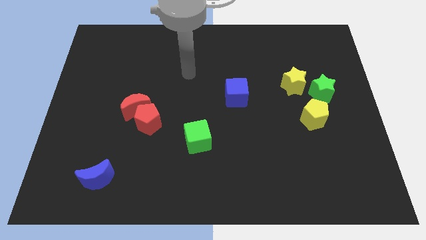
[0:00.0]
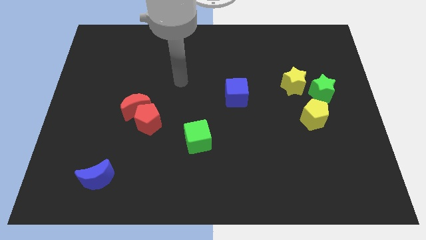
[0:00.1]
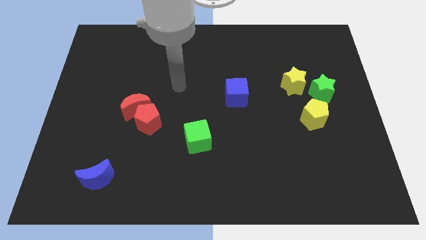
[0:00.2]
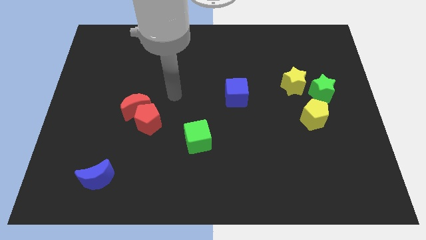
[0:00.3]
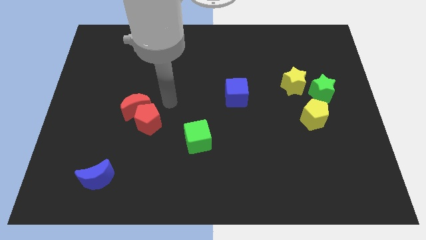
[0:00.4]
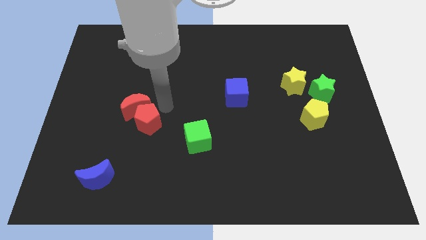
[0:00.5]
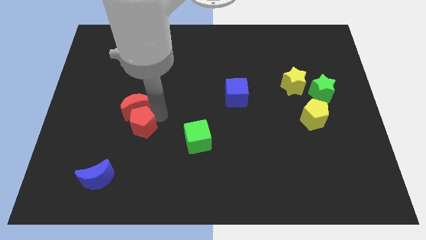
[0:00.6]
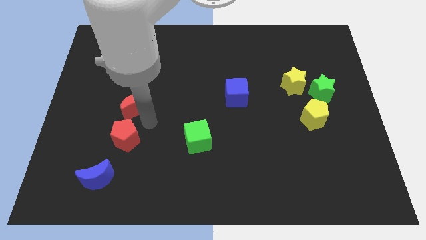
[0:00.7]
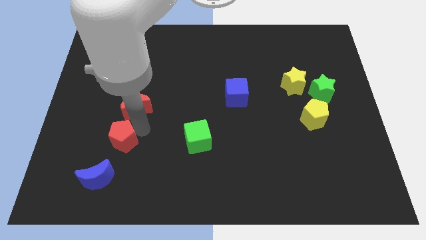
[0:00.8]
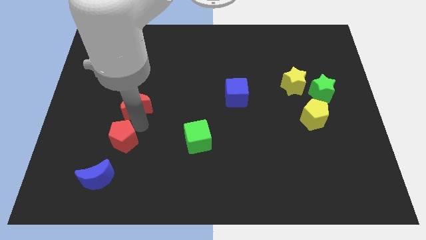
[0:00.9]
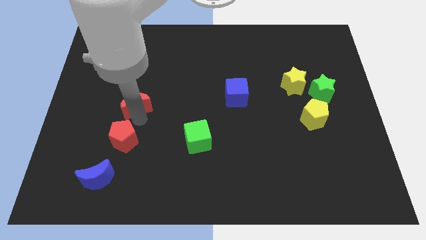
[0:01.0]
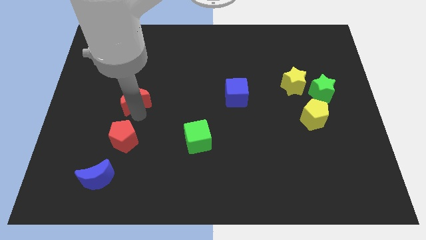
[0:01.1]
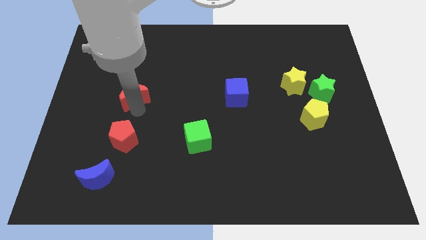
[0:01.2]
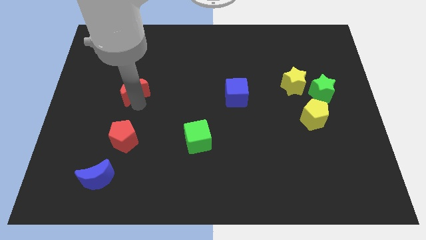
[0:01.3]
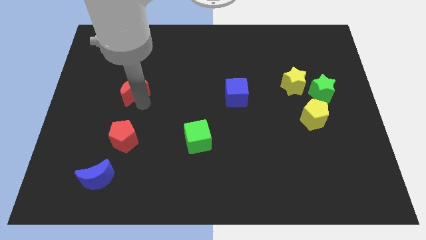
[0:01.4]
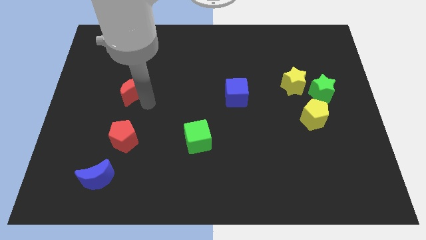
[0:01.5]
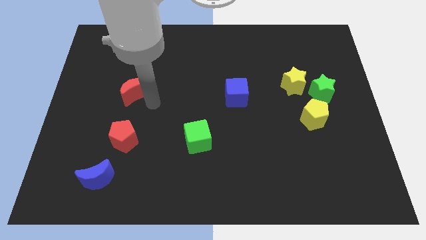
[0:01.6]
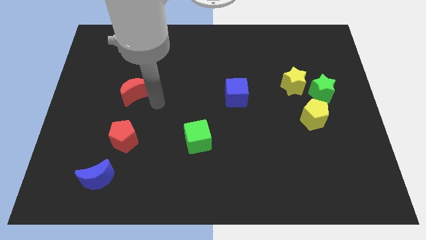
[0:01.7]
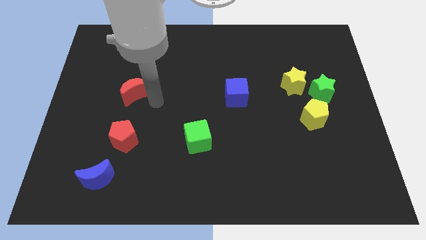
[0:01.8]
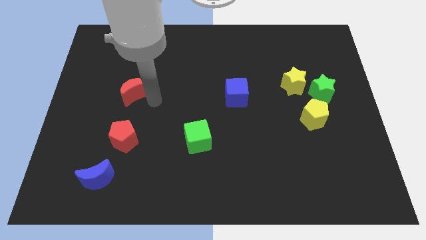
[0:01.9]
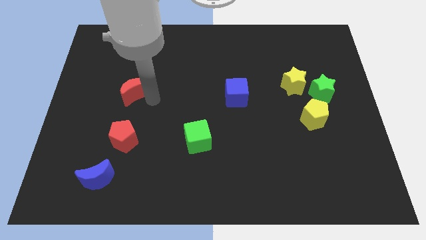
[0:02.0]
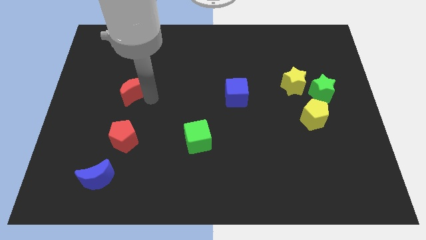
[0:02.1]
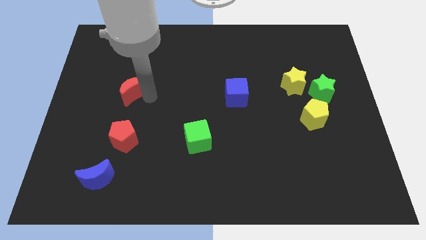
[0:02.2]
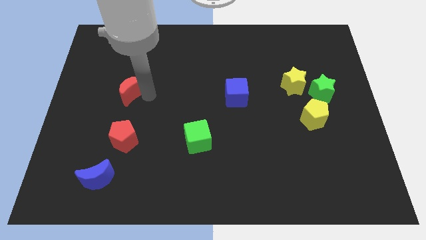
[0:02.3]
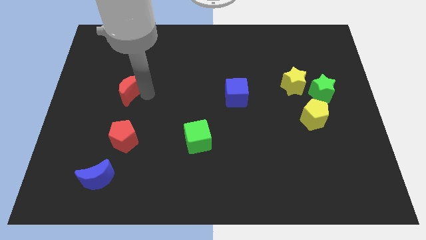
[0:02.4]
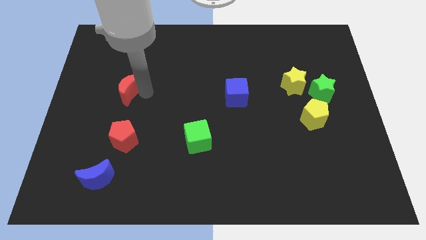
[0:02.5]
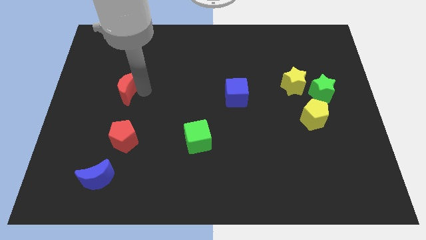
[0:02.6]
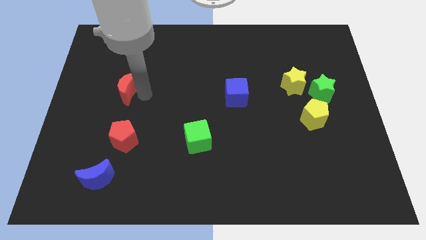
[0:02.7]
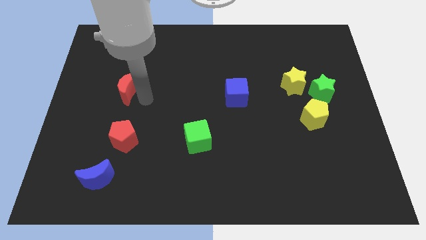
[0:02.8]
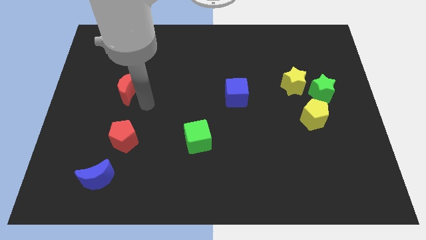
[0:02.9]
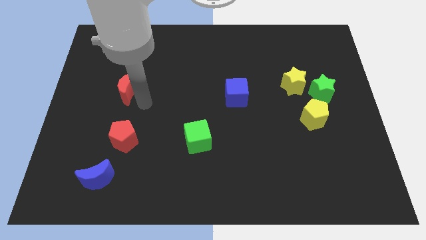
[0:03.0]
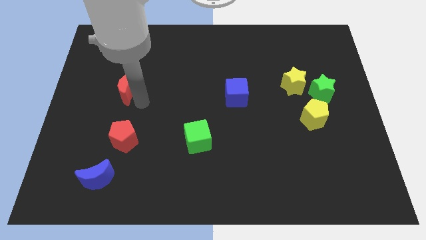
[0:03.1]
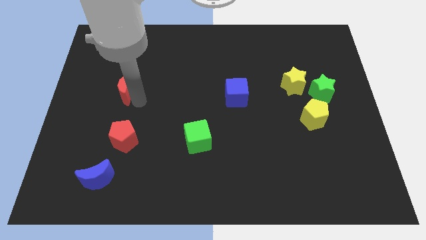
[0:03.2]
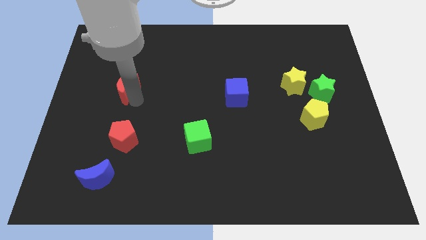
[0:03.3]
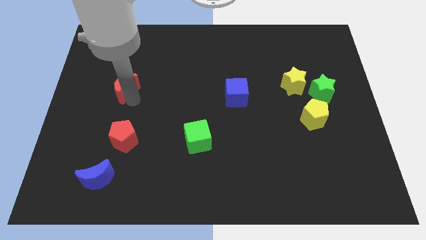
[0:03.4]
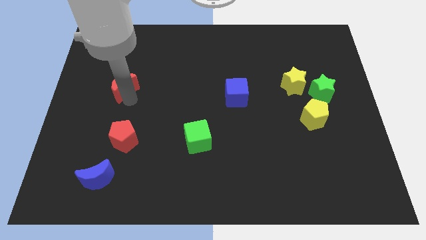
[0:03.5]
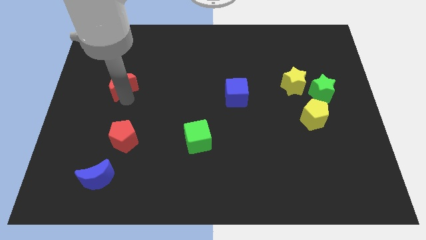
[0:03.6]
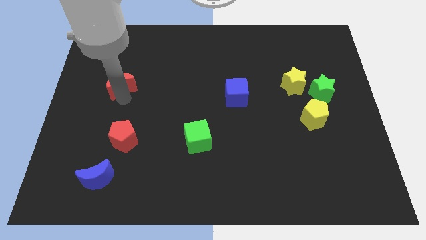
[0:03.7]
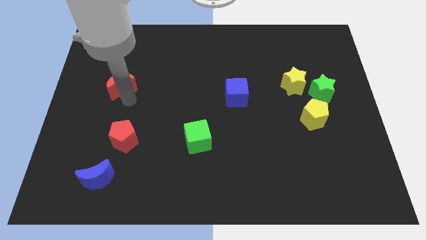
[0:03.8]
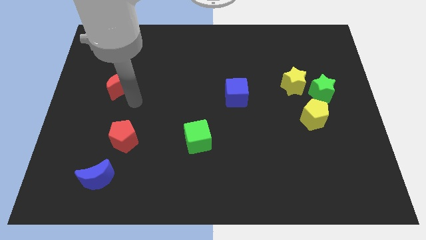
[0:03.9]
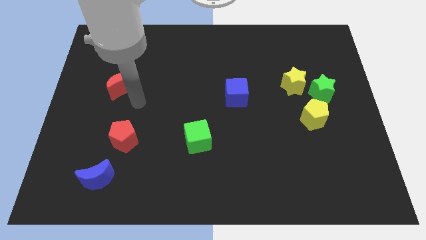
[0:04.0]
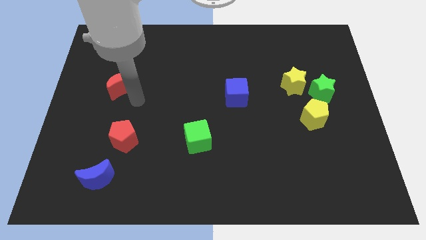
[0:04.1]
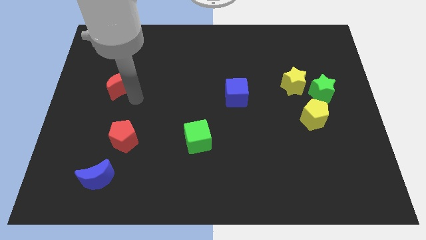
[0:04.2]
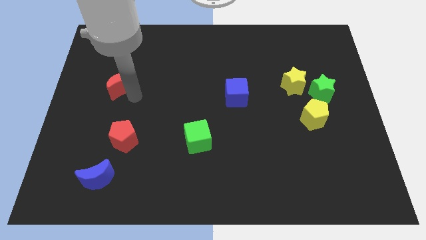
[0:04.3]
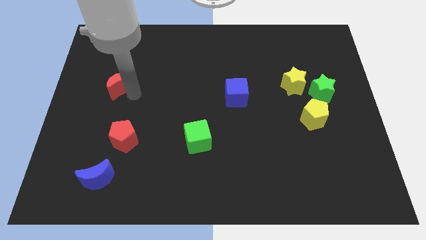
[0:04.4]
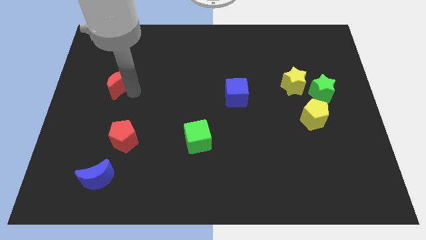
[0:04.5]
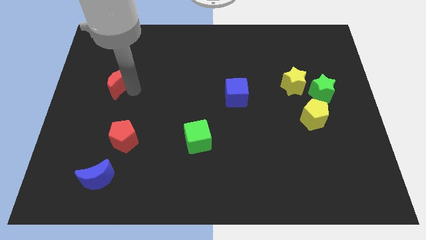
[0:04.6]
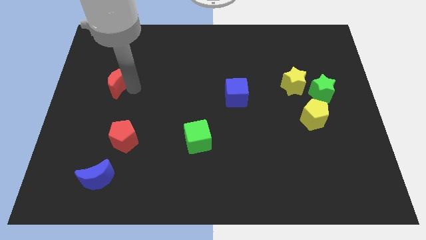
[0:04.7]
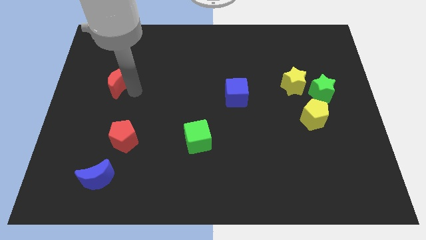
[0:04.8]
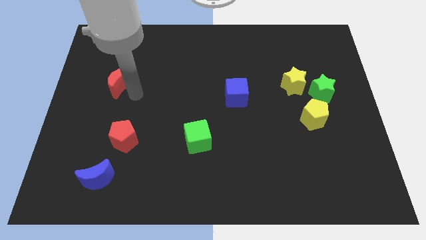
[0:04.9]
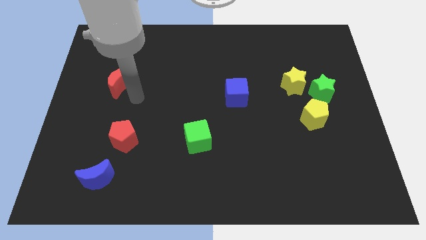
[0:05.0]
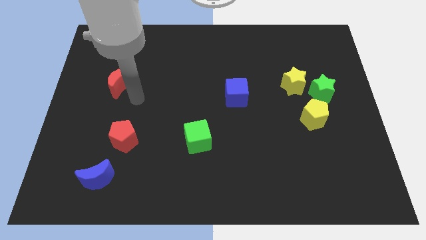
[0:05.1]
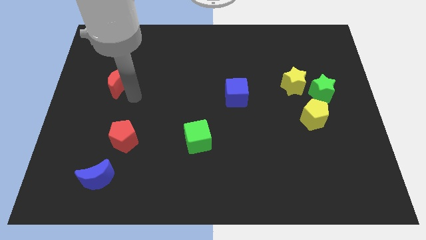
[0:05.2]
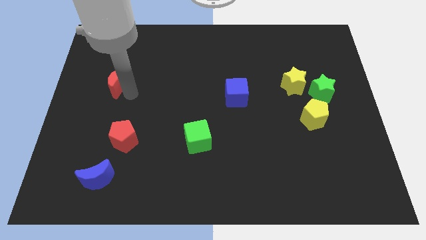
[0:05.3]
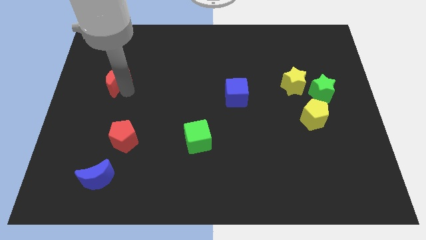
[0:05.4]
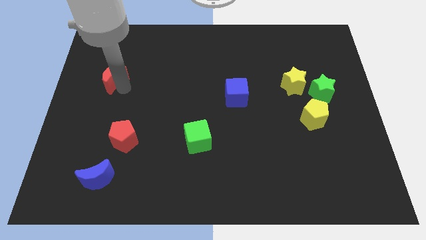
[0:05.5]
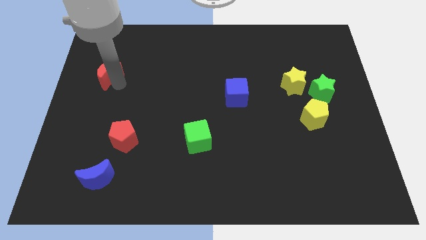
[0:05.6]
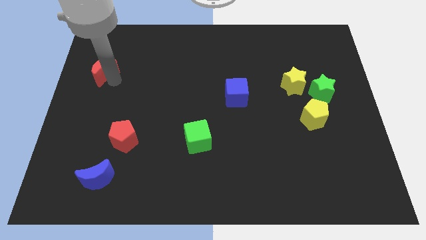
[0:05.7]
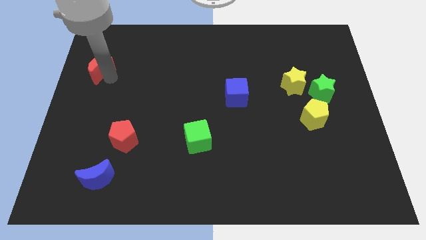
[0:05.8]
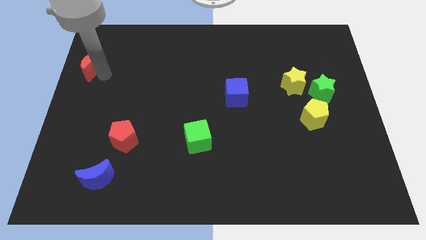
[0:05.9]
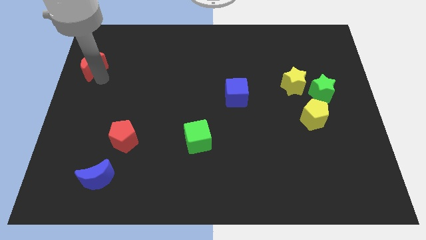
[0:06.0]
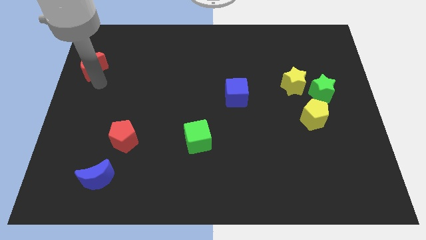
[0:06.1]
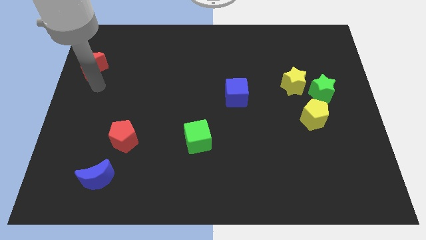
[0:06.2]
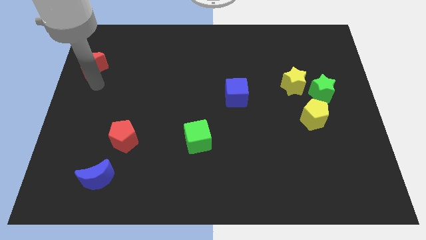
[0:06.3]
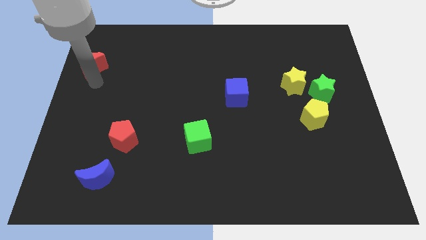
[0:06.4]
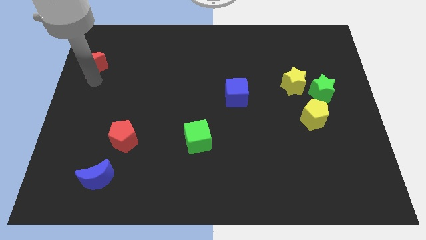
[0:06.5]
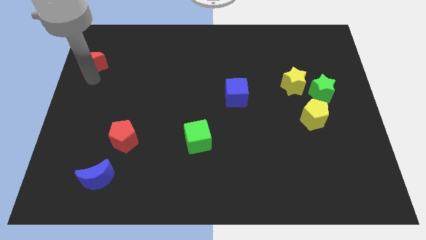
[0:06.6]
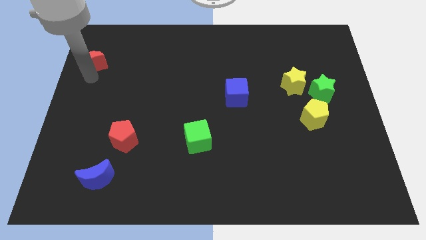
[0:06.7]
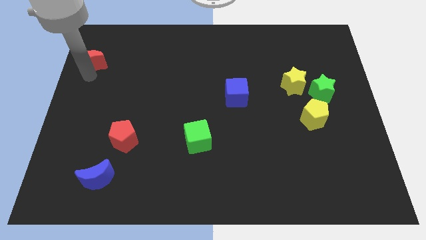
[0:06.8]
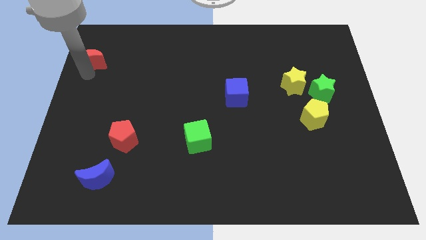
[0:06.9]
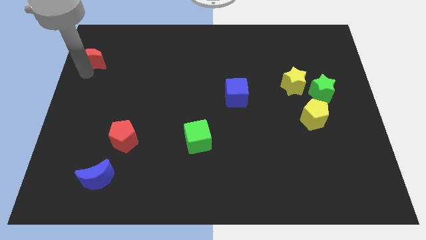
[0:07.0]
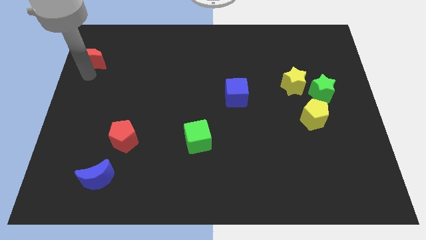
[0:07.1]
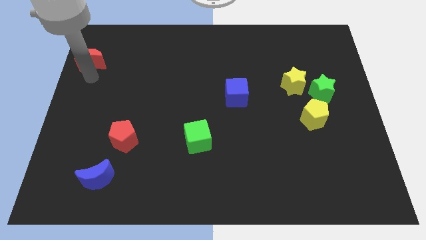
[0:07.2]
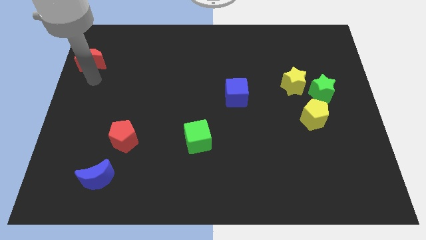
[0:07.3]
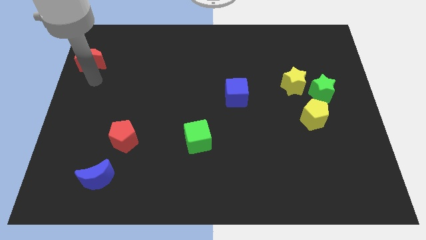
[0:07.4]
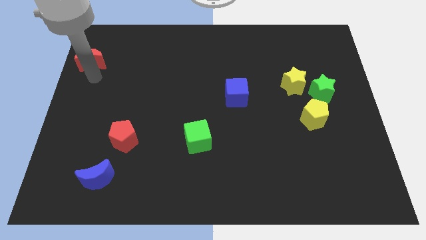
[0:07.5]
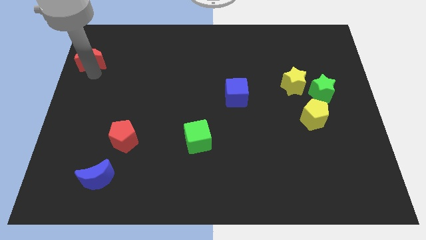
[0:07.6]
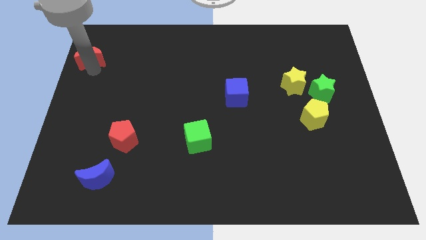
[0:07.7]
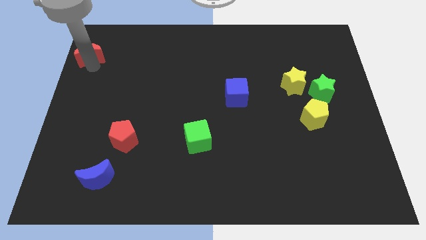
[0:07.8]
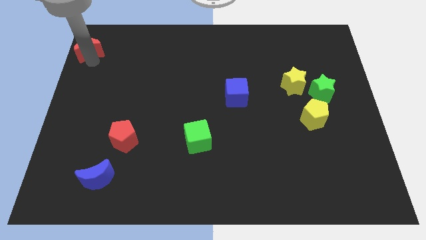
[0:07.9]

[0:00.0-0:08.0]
slide the red moon to the top left
